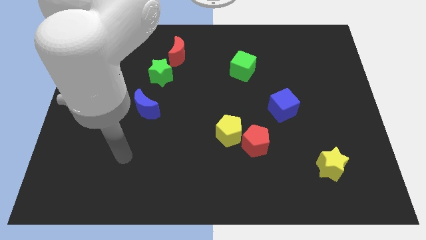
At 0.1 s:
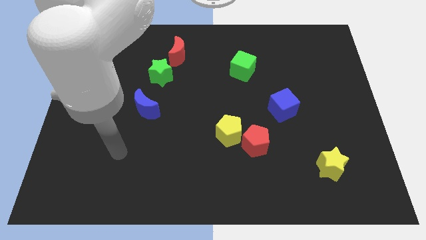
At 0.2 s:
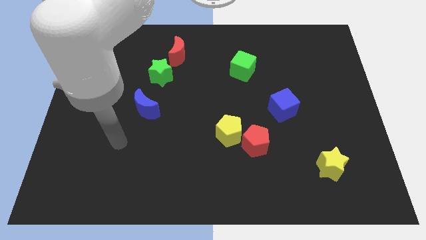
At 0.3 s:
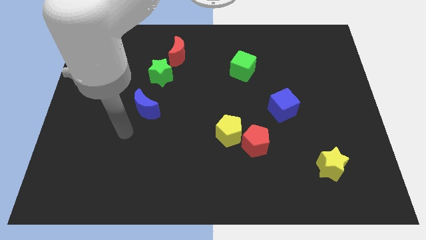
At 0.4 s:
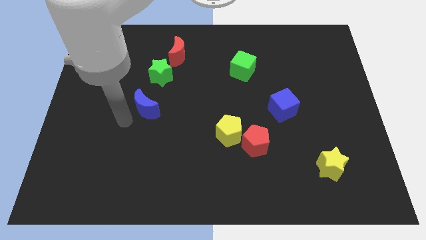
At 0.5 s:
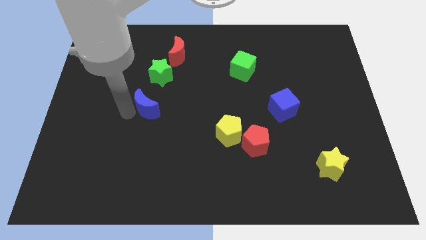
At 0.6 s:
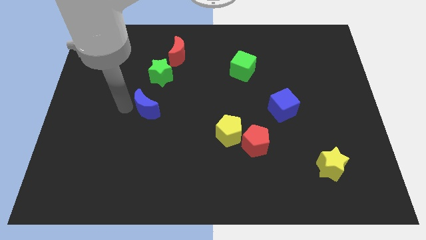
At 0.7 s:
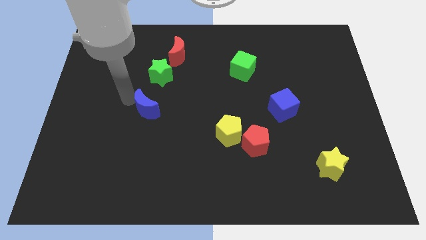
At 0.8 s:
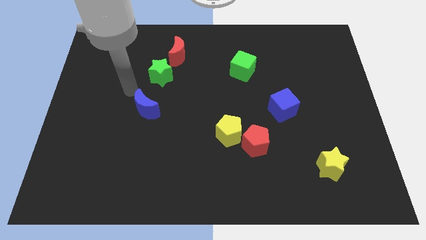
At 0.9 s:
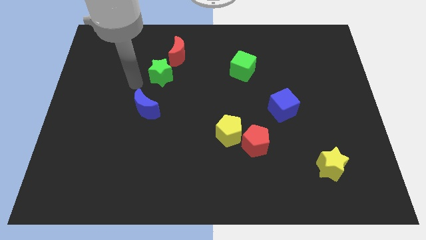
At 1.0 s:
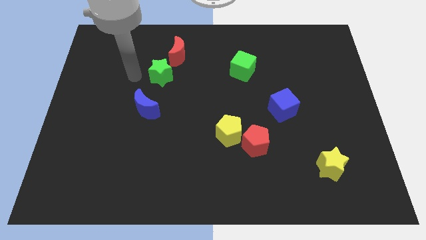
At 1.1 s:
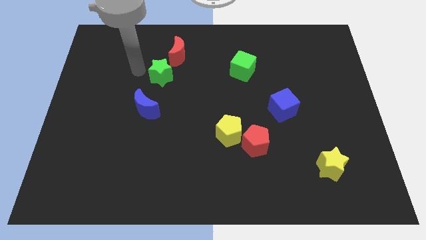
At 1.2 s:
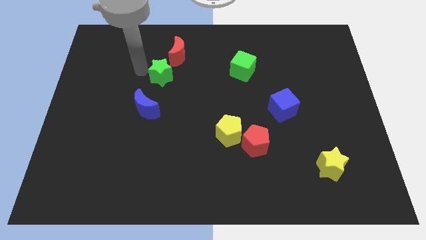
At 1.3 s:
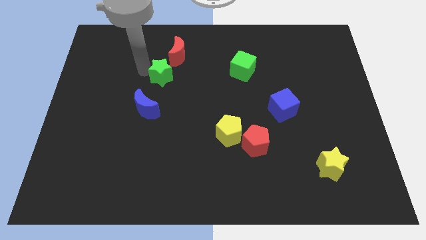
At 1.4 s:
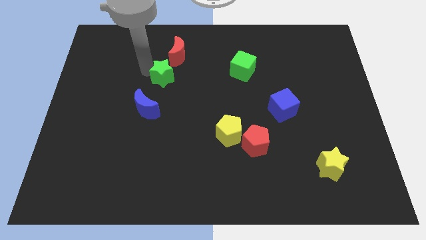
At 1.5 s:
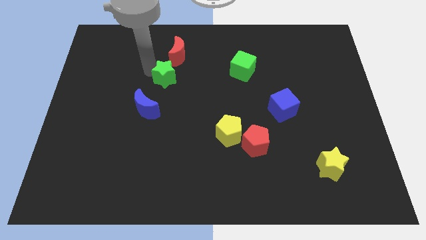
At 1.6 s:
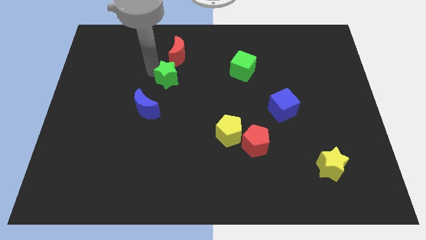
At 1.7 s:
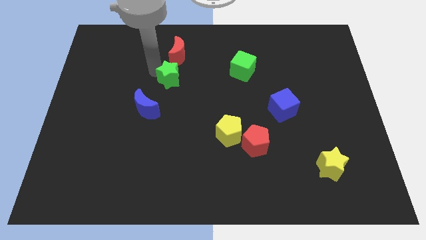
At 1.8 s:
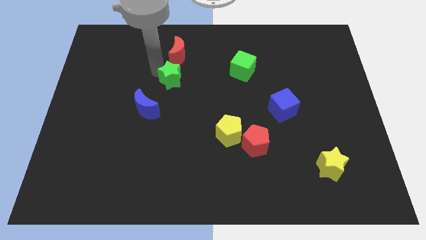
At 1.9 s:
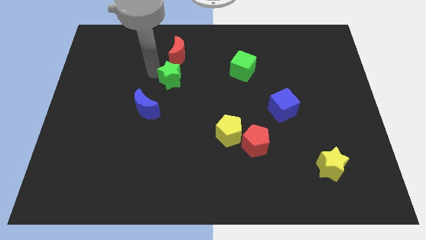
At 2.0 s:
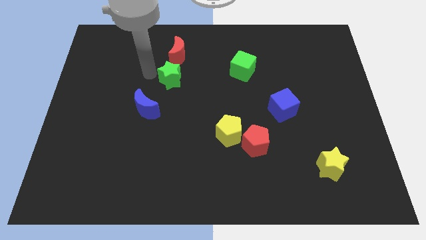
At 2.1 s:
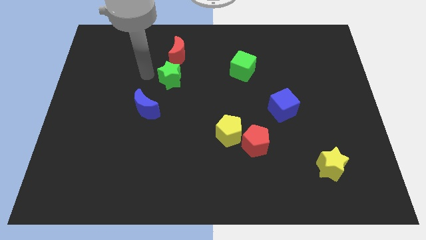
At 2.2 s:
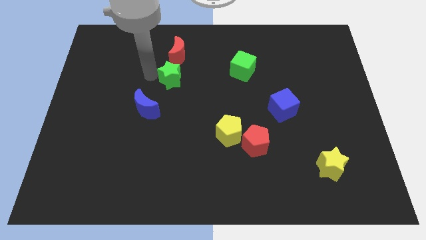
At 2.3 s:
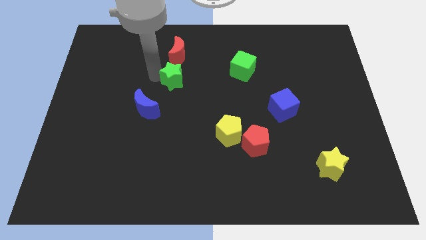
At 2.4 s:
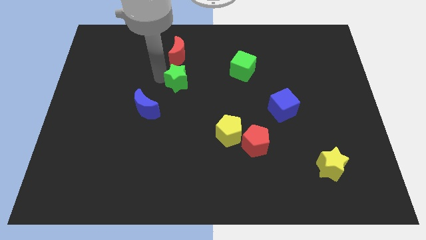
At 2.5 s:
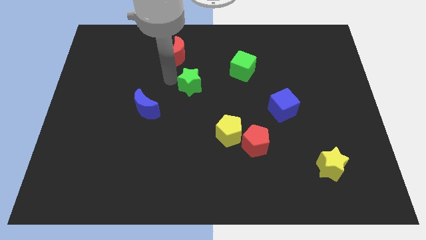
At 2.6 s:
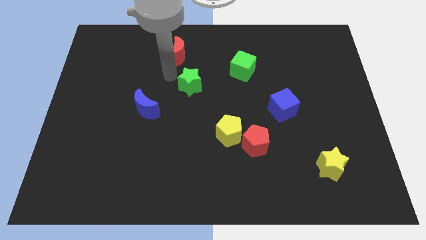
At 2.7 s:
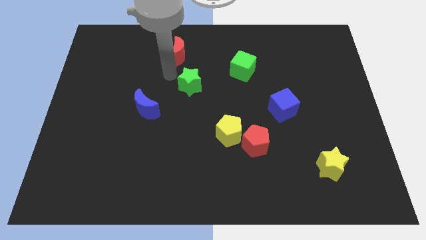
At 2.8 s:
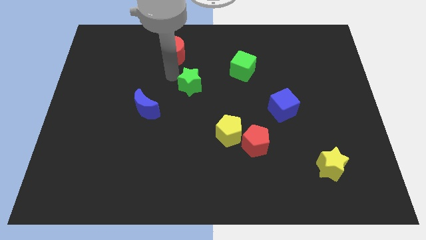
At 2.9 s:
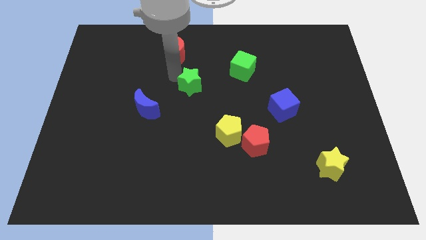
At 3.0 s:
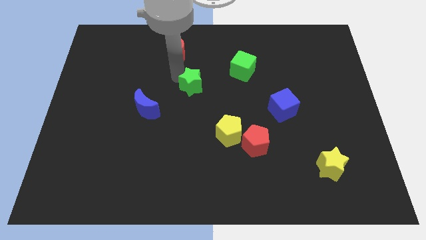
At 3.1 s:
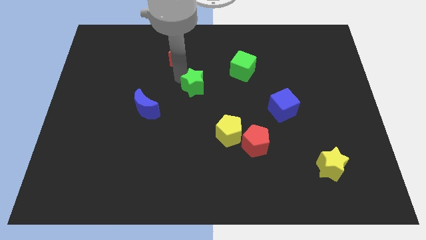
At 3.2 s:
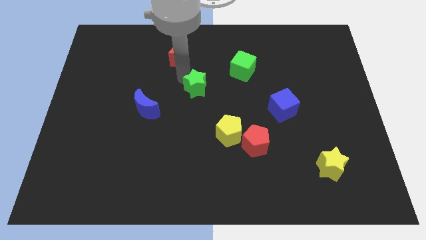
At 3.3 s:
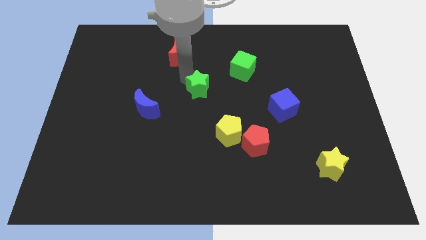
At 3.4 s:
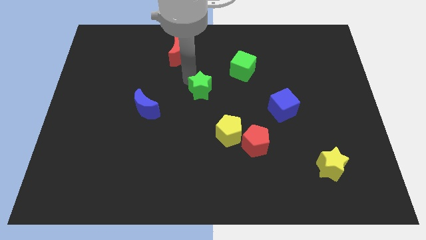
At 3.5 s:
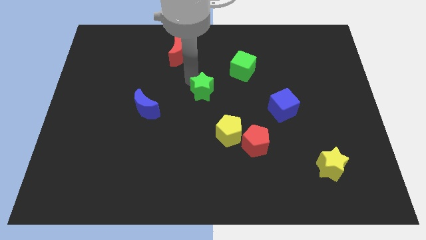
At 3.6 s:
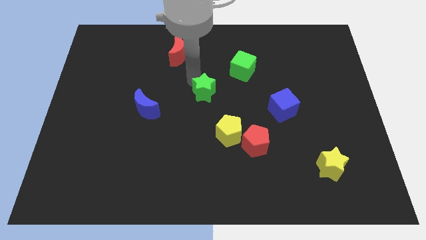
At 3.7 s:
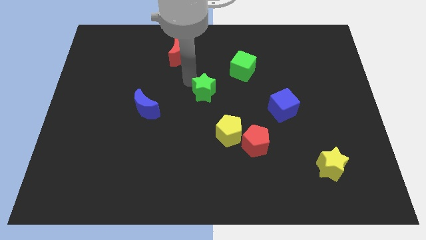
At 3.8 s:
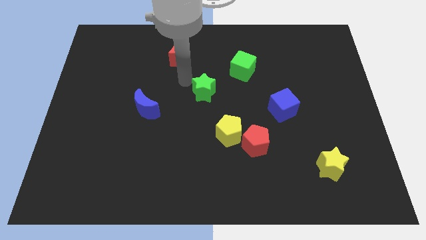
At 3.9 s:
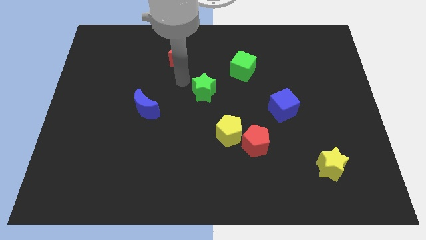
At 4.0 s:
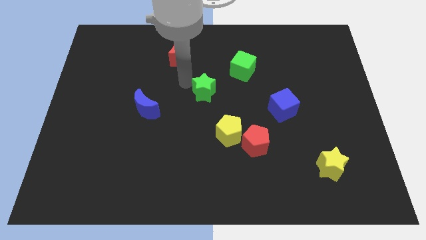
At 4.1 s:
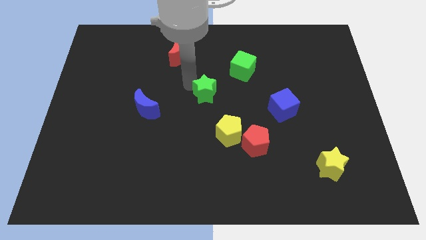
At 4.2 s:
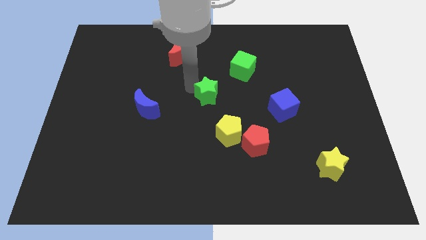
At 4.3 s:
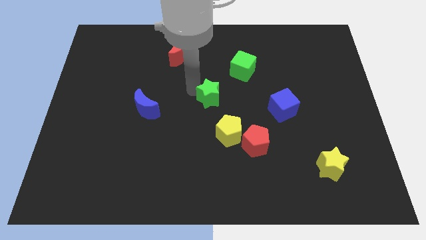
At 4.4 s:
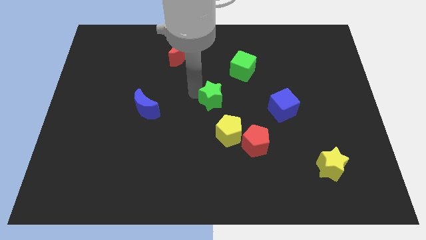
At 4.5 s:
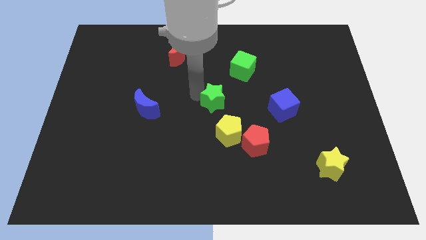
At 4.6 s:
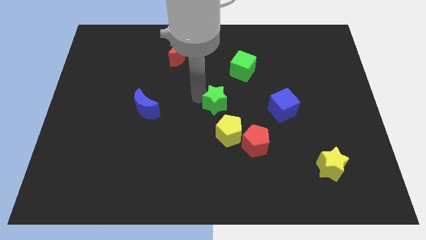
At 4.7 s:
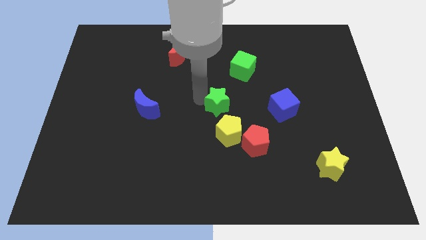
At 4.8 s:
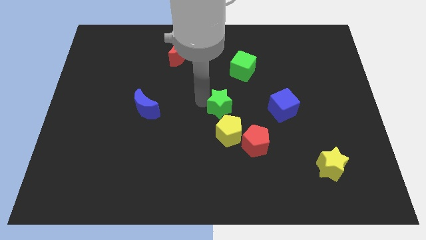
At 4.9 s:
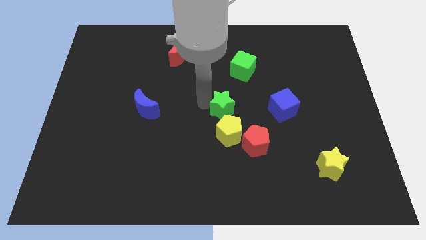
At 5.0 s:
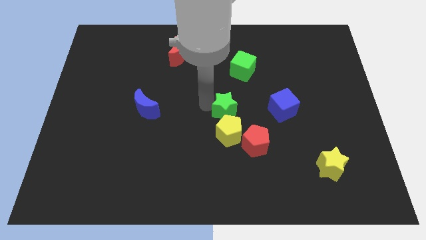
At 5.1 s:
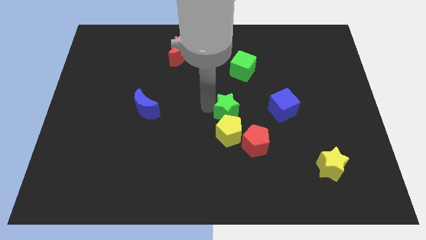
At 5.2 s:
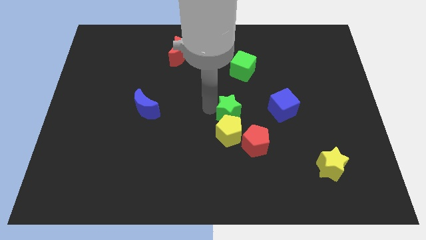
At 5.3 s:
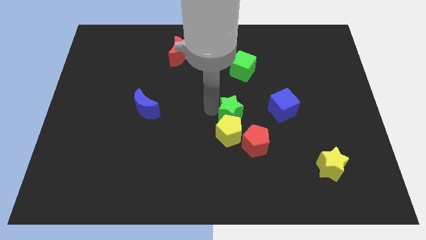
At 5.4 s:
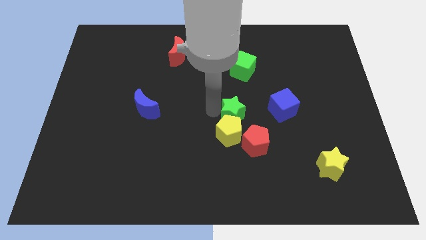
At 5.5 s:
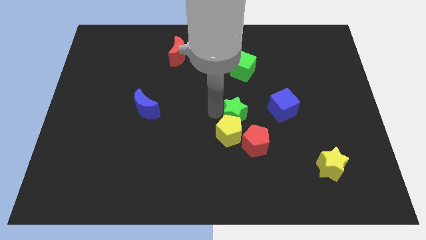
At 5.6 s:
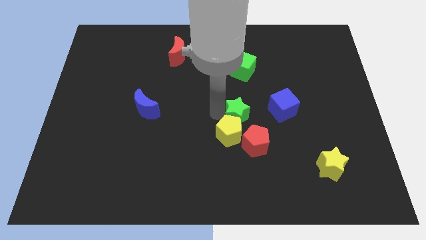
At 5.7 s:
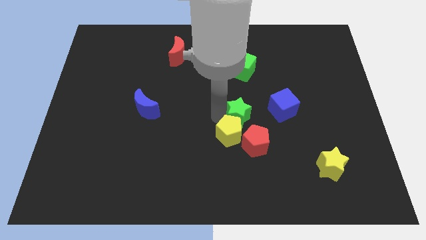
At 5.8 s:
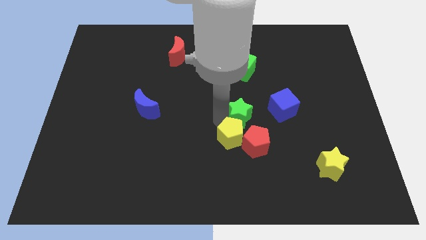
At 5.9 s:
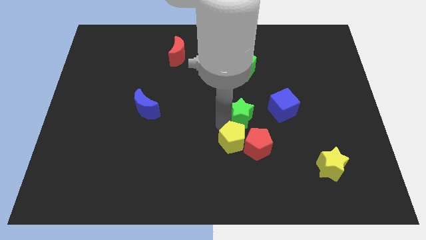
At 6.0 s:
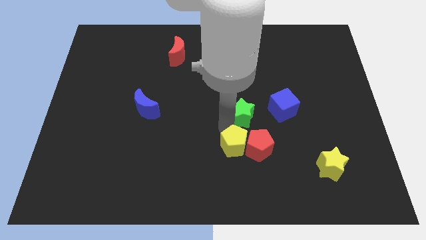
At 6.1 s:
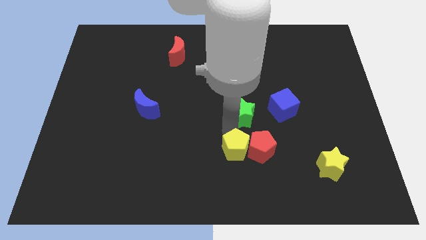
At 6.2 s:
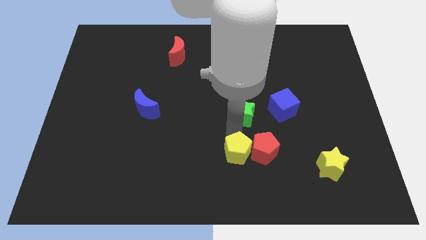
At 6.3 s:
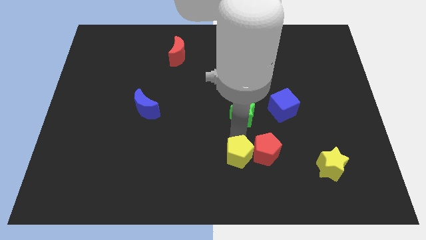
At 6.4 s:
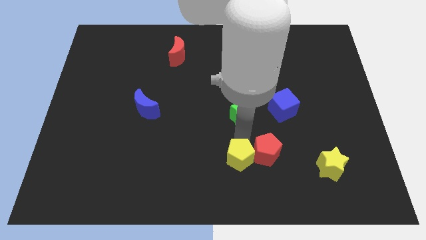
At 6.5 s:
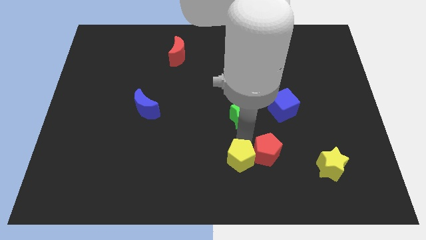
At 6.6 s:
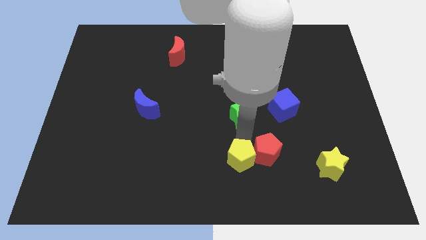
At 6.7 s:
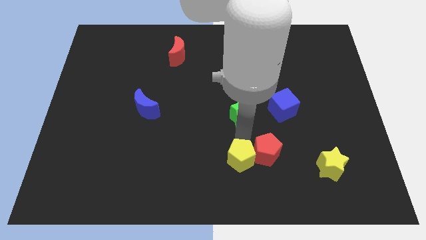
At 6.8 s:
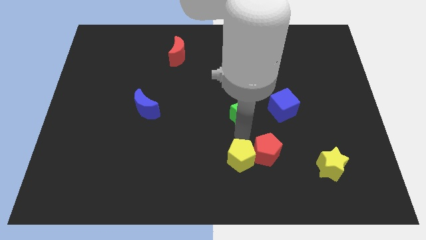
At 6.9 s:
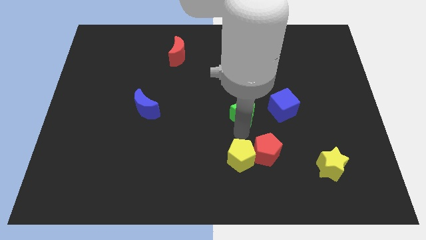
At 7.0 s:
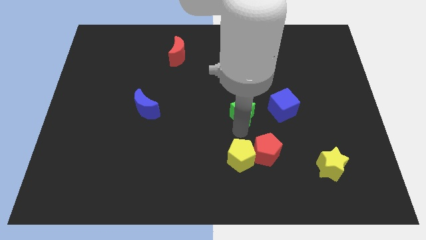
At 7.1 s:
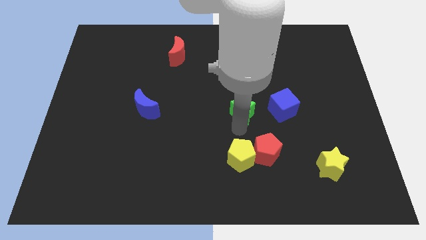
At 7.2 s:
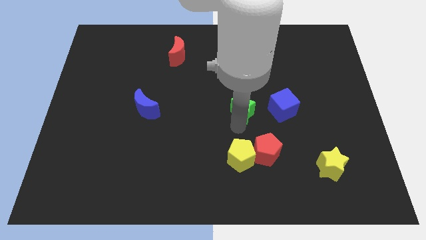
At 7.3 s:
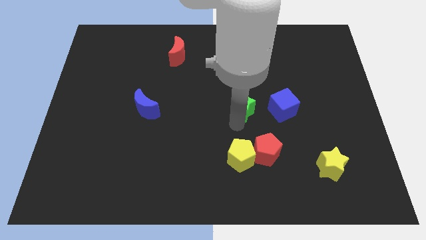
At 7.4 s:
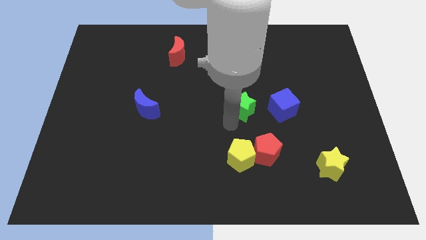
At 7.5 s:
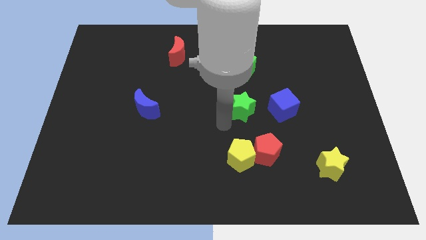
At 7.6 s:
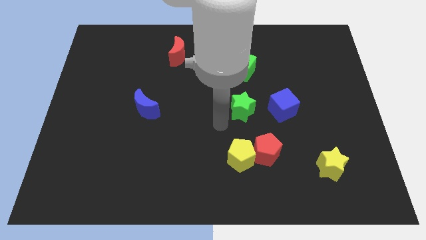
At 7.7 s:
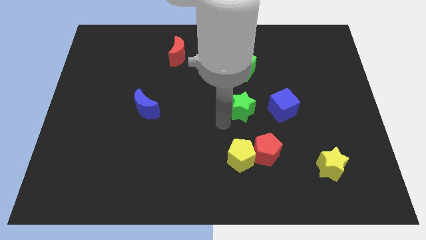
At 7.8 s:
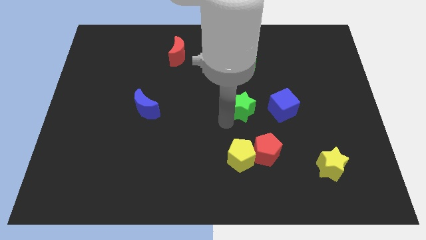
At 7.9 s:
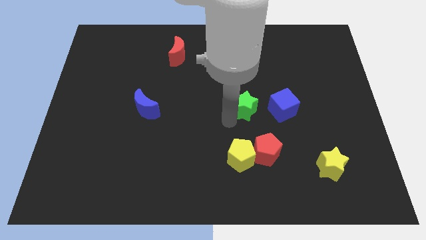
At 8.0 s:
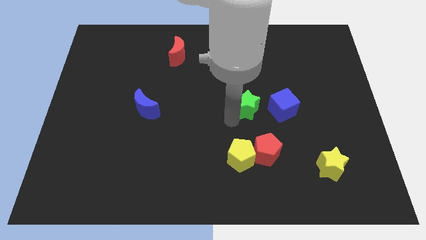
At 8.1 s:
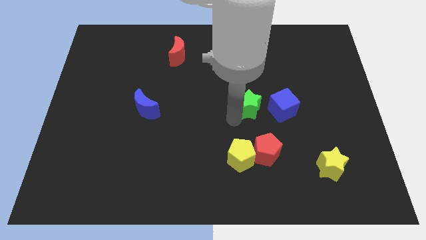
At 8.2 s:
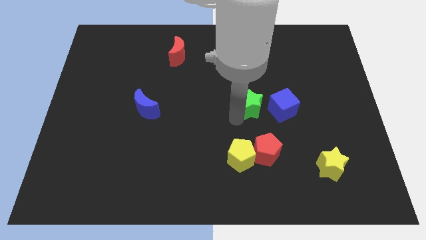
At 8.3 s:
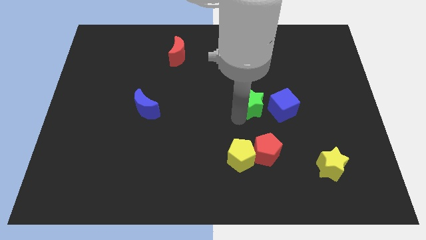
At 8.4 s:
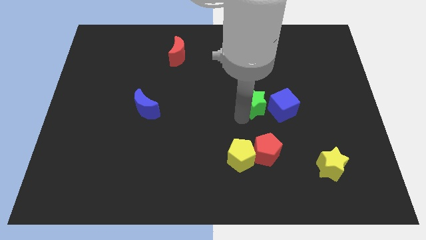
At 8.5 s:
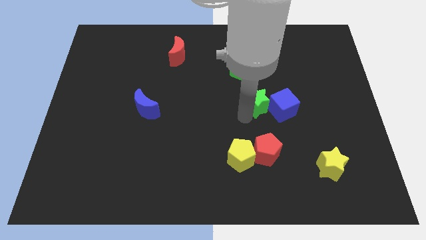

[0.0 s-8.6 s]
slide the green star close to the blue cube
